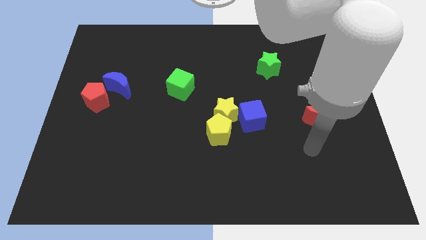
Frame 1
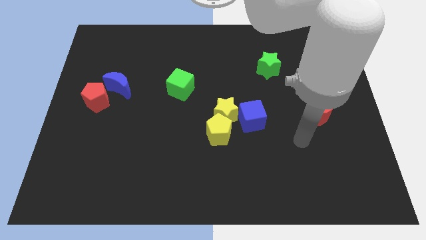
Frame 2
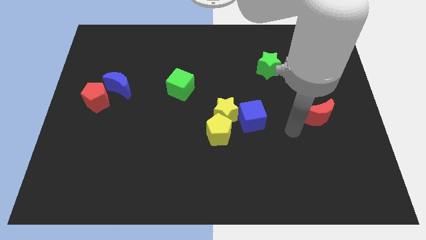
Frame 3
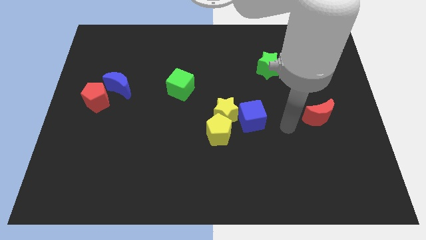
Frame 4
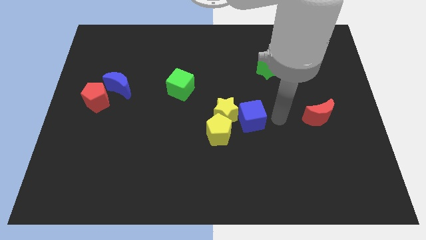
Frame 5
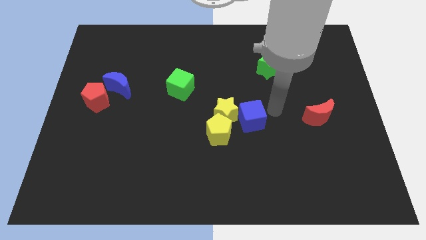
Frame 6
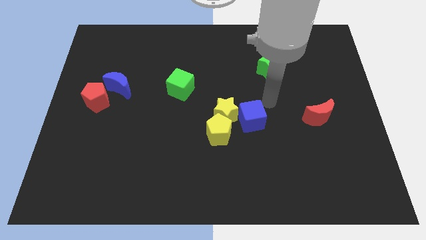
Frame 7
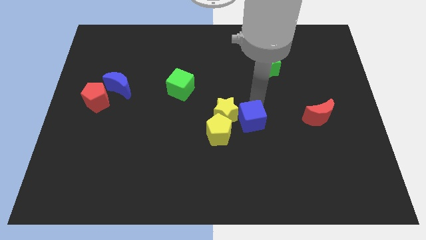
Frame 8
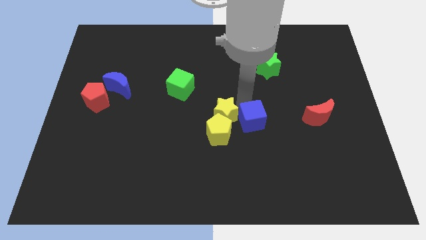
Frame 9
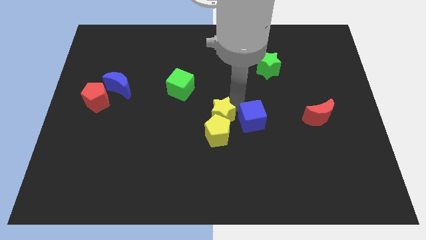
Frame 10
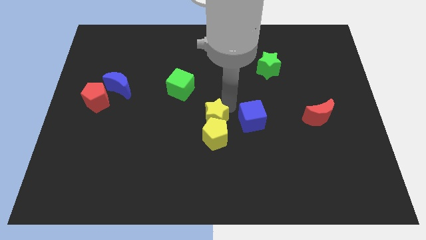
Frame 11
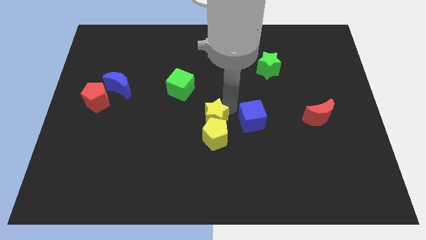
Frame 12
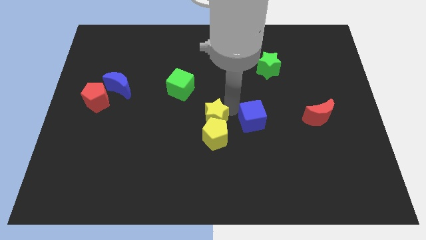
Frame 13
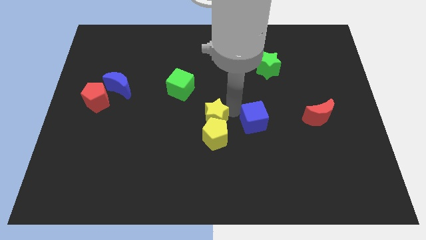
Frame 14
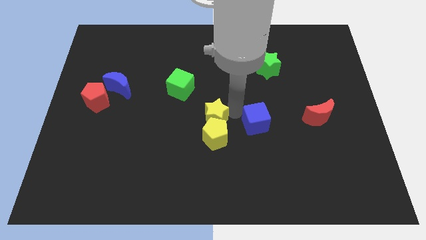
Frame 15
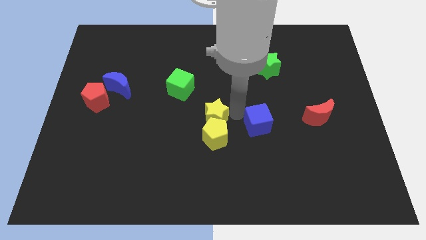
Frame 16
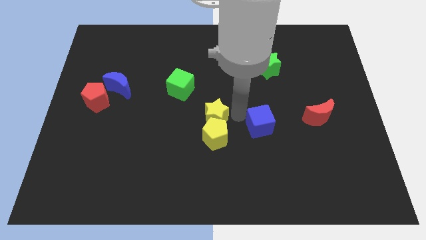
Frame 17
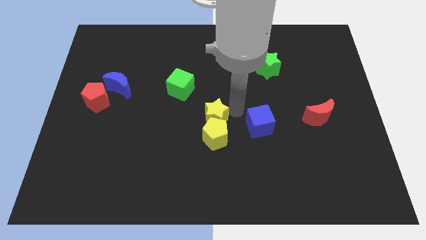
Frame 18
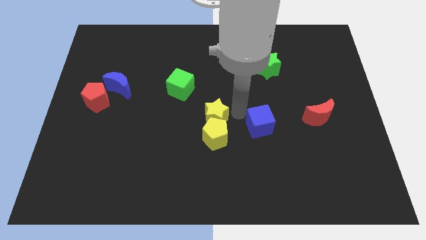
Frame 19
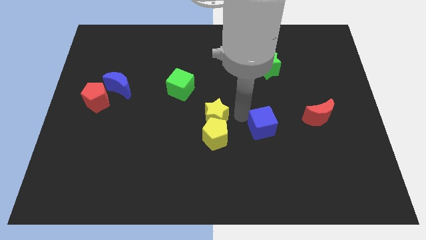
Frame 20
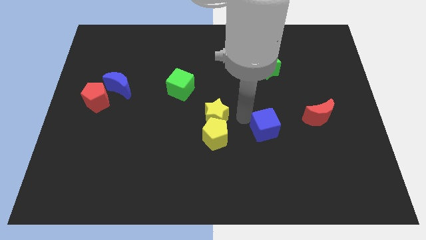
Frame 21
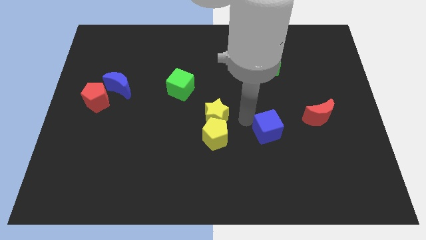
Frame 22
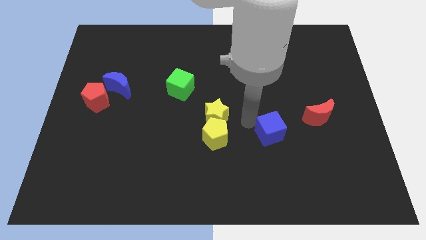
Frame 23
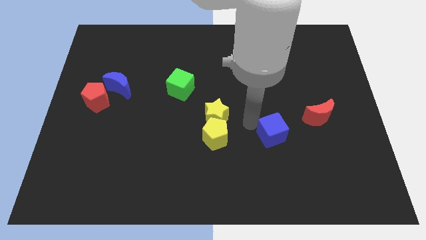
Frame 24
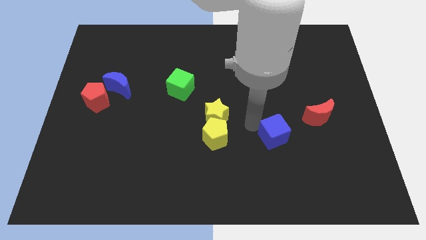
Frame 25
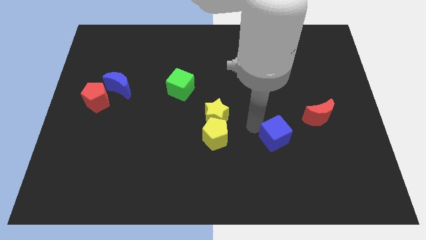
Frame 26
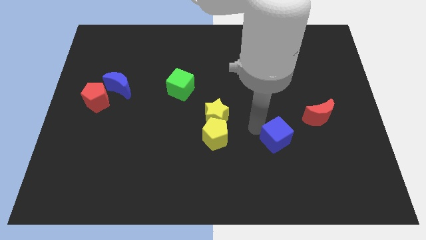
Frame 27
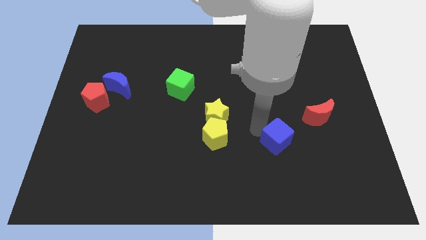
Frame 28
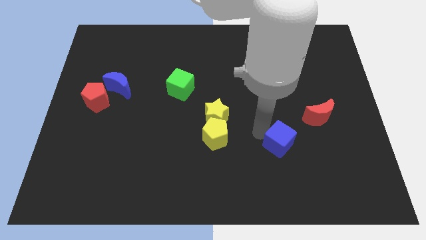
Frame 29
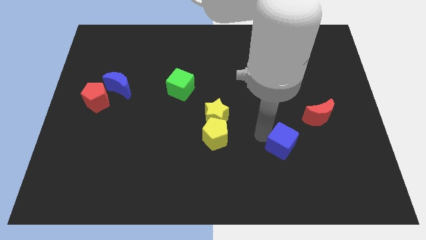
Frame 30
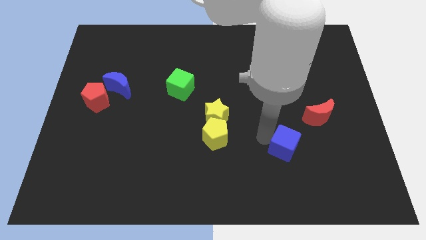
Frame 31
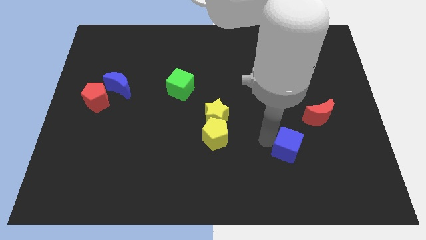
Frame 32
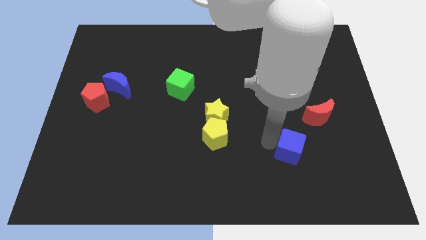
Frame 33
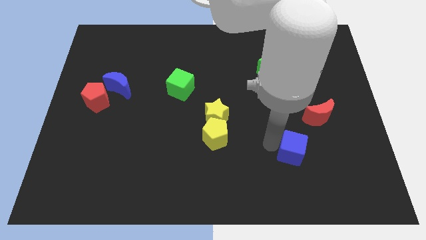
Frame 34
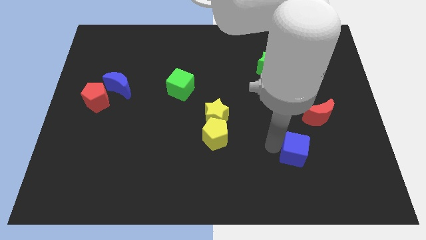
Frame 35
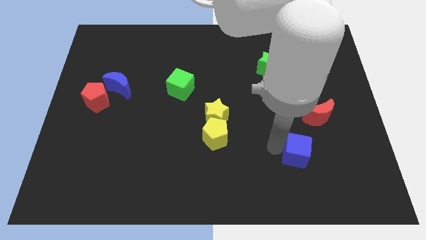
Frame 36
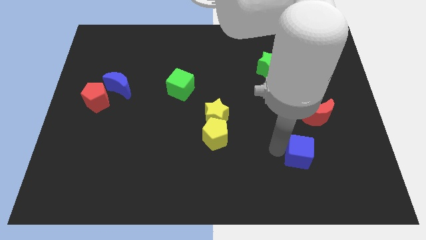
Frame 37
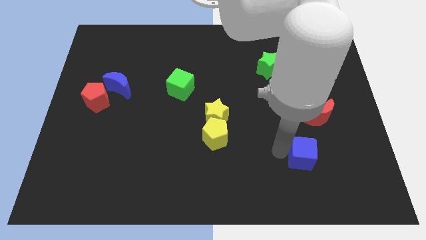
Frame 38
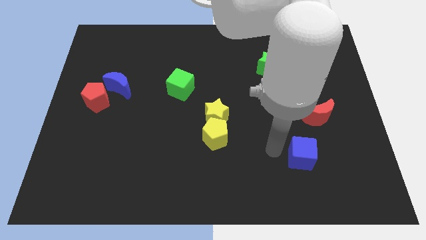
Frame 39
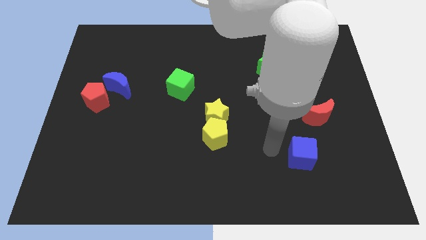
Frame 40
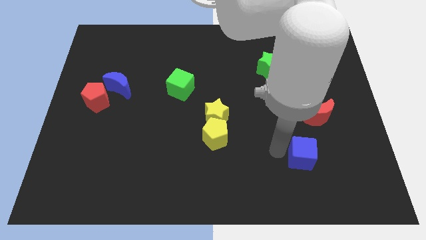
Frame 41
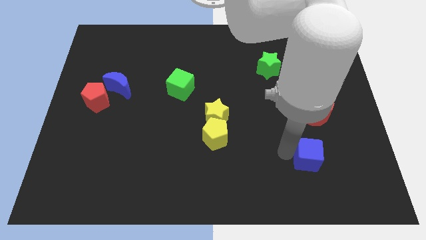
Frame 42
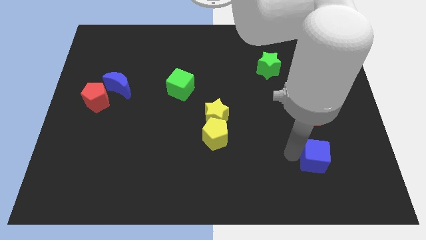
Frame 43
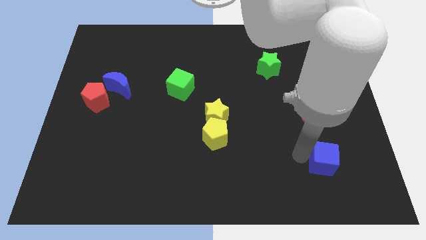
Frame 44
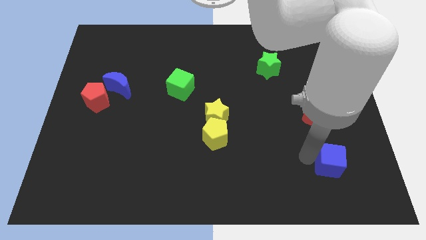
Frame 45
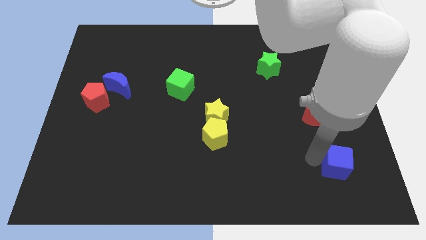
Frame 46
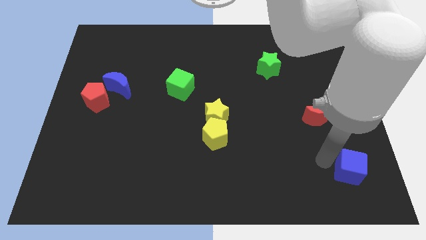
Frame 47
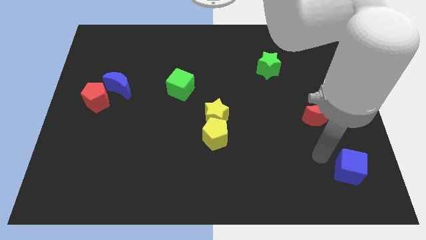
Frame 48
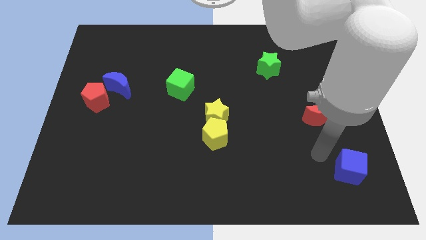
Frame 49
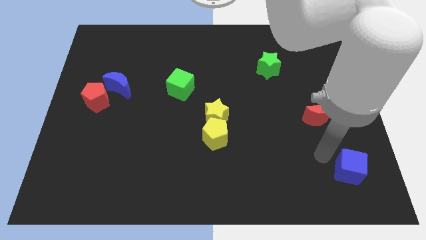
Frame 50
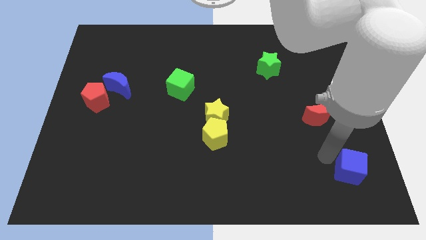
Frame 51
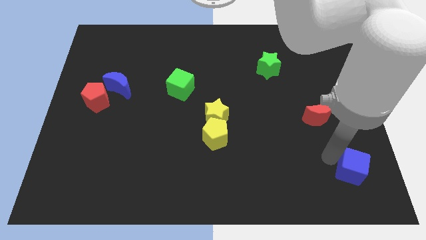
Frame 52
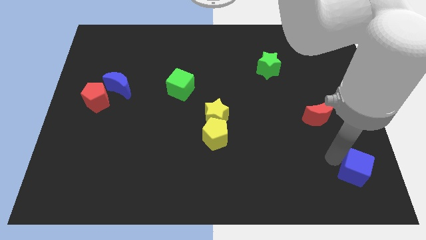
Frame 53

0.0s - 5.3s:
slide the blue cube to the bottom right of the board

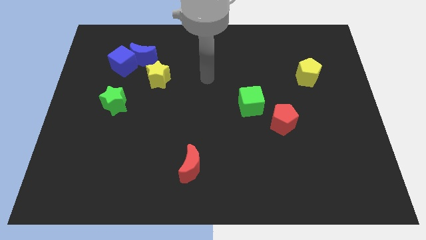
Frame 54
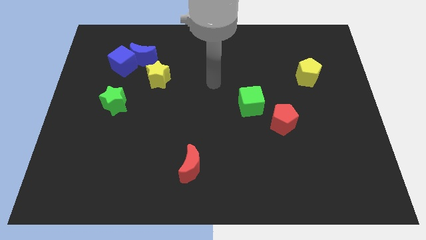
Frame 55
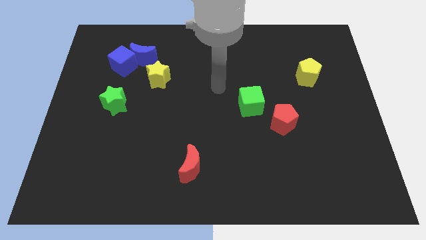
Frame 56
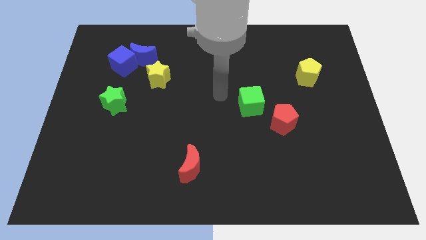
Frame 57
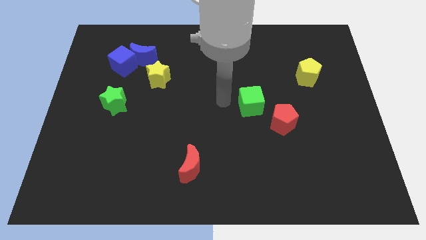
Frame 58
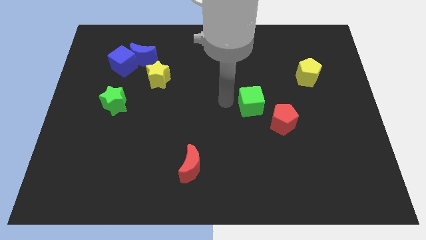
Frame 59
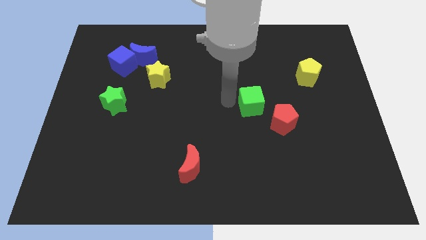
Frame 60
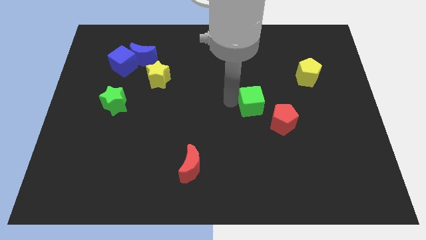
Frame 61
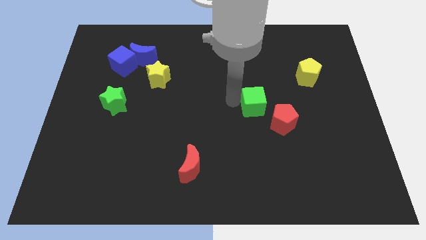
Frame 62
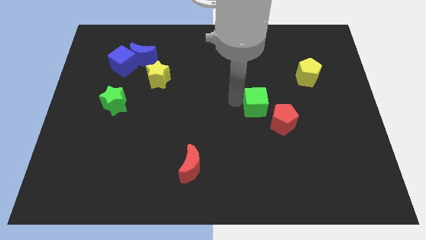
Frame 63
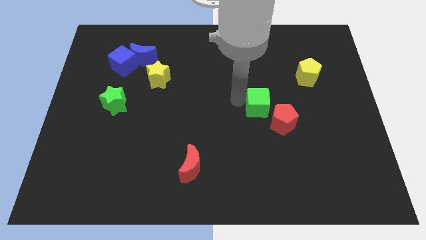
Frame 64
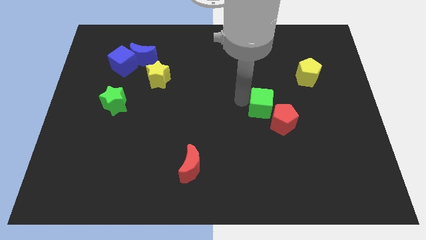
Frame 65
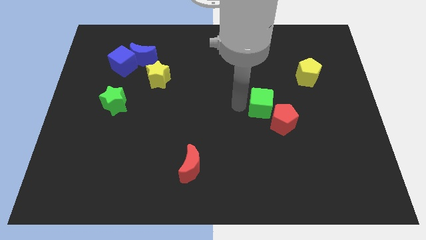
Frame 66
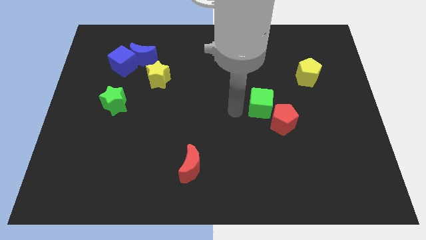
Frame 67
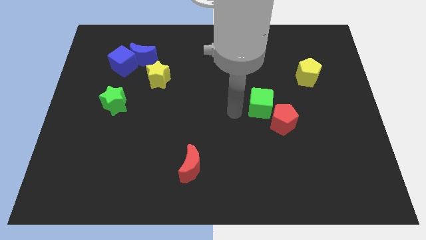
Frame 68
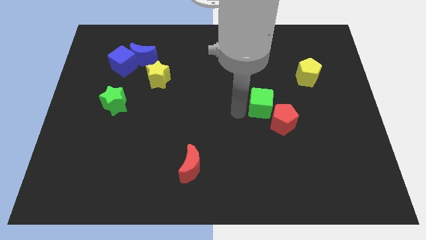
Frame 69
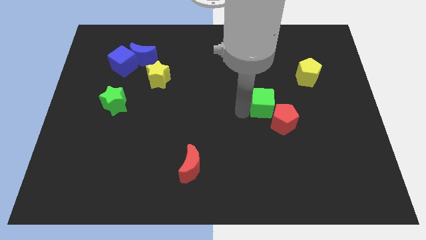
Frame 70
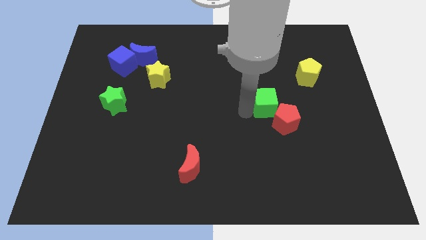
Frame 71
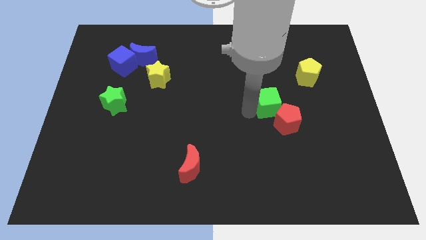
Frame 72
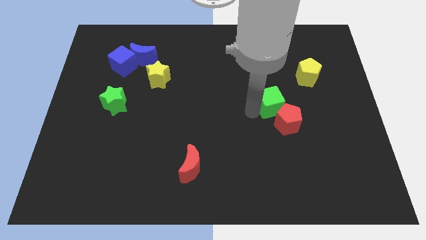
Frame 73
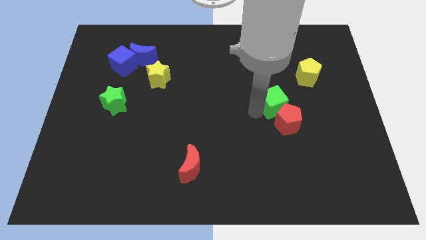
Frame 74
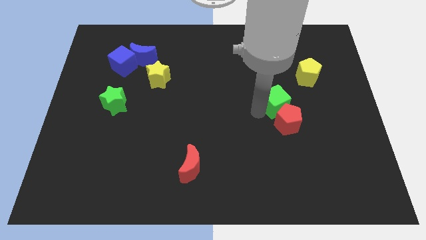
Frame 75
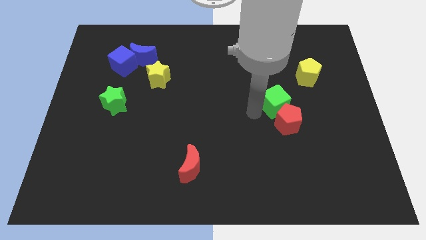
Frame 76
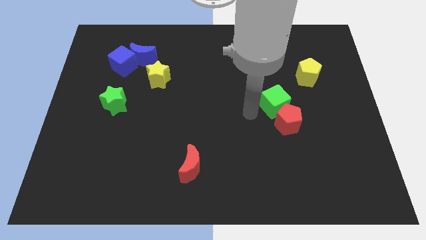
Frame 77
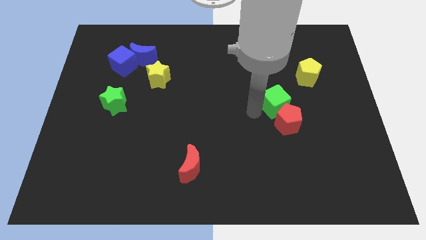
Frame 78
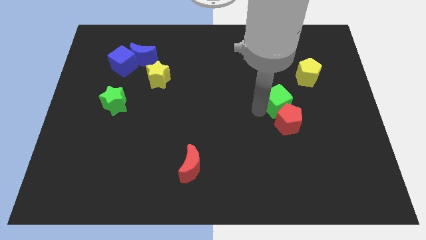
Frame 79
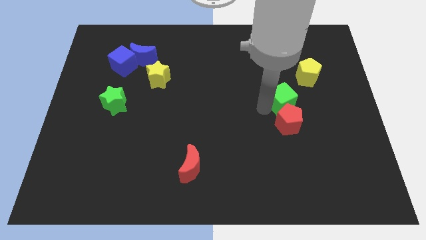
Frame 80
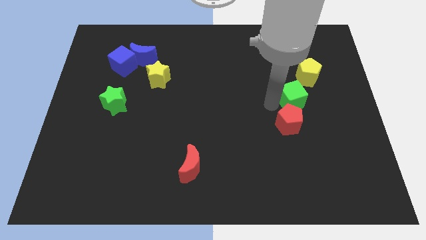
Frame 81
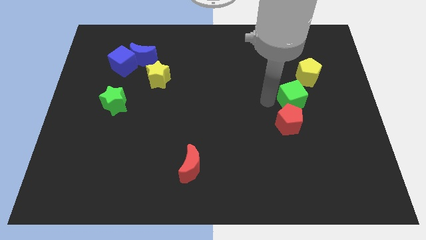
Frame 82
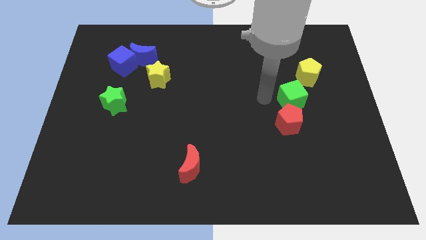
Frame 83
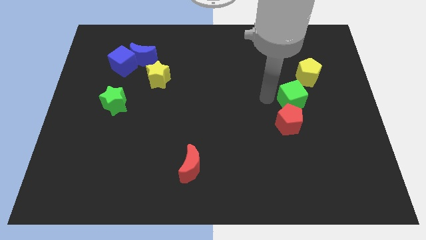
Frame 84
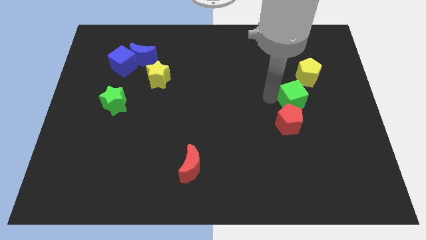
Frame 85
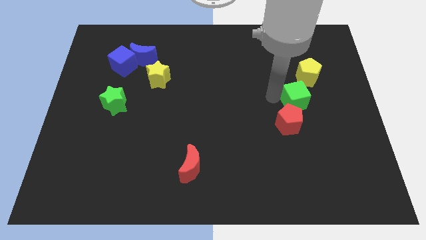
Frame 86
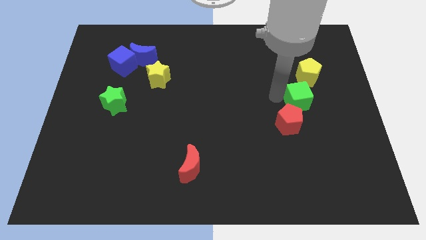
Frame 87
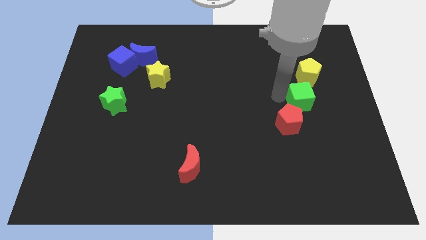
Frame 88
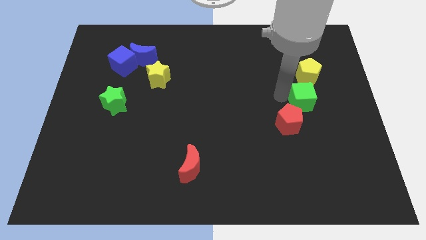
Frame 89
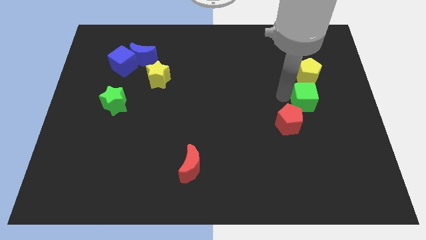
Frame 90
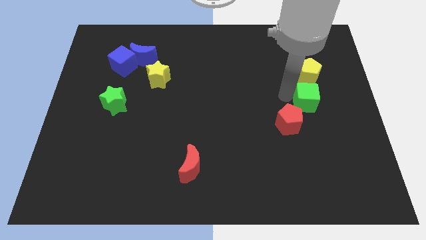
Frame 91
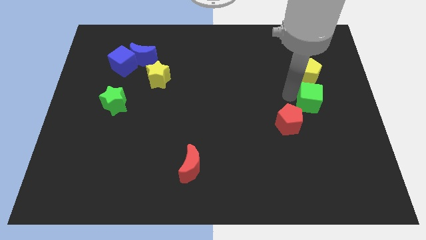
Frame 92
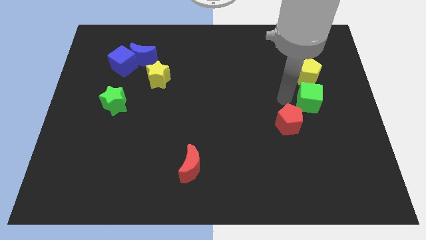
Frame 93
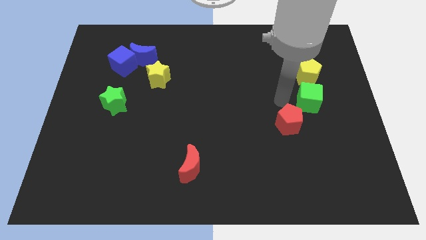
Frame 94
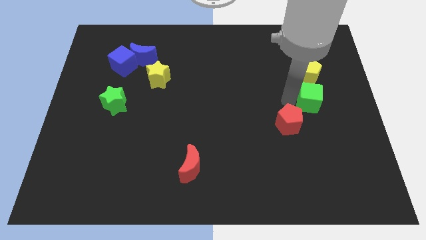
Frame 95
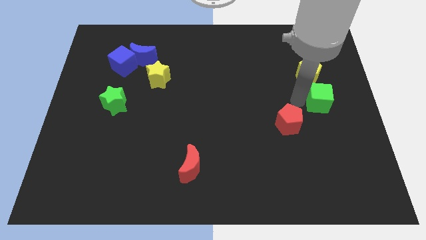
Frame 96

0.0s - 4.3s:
put the green cube to the center right
